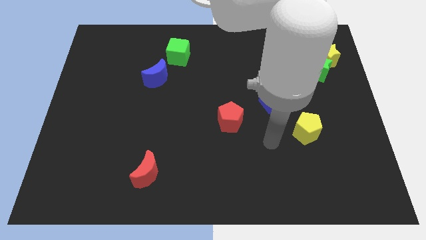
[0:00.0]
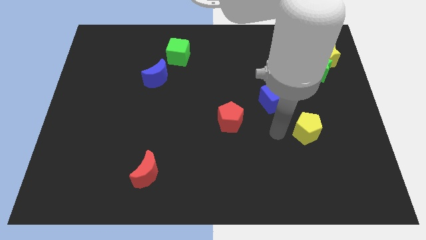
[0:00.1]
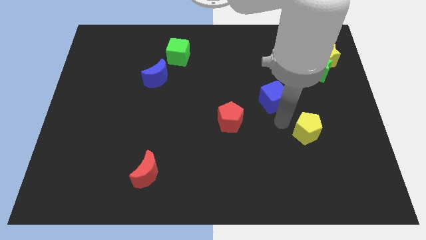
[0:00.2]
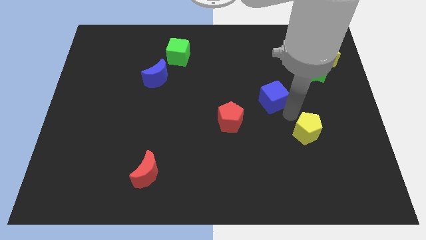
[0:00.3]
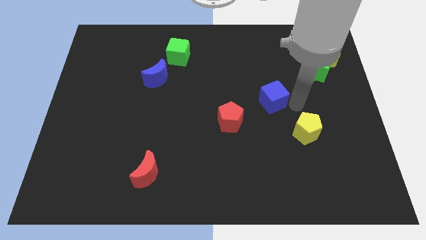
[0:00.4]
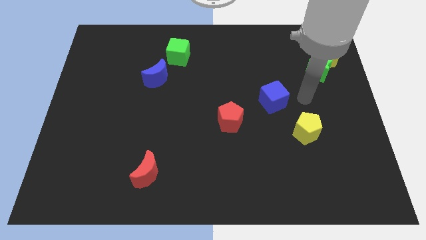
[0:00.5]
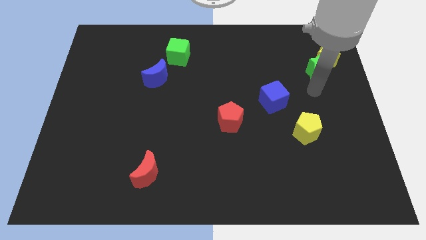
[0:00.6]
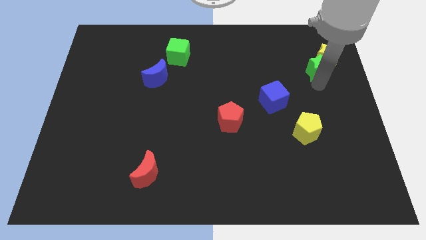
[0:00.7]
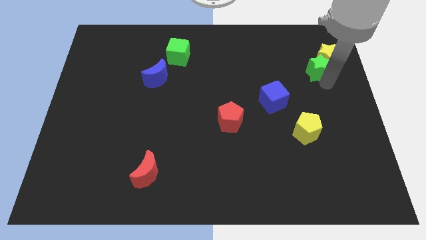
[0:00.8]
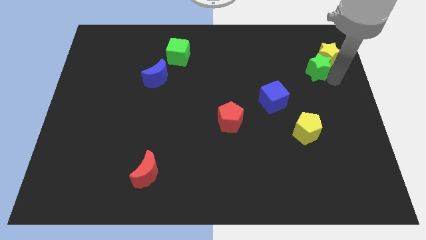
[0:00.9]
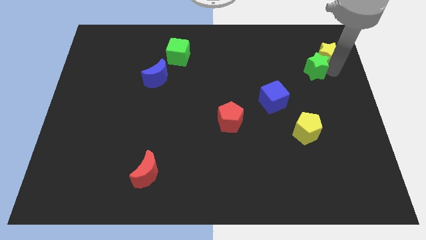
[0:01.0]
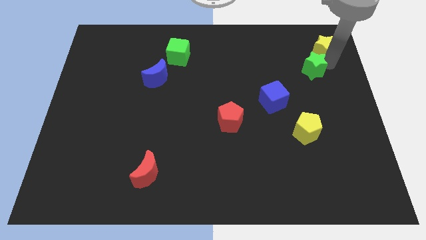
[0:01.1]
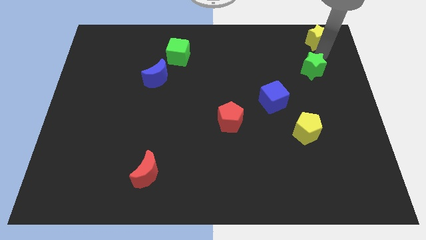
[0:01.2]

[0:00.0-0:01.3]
move the green star away from the yellow star

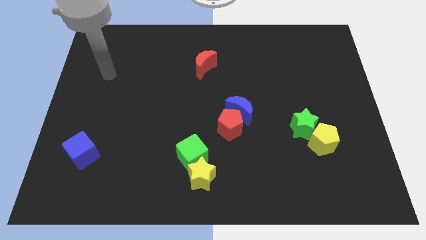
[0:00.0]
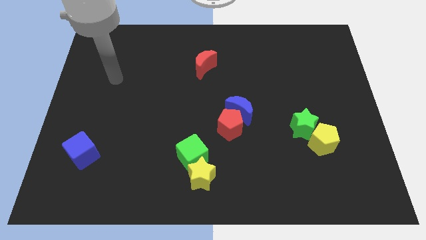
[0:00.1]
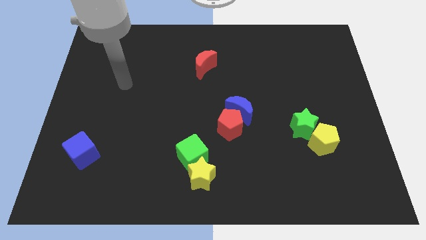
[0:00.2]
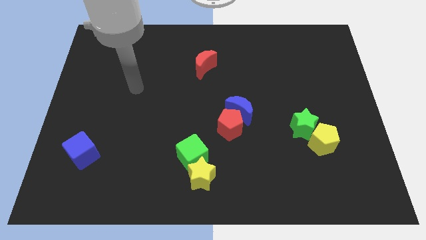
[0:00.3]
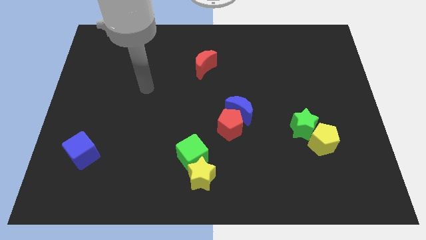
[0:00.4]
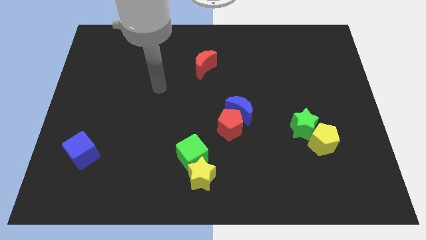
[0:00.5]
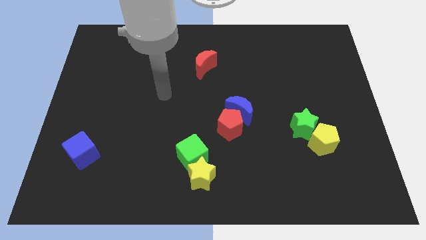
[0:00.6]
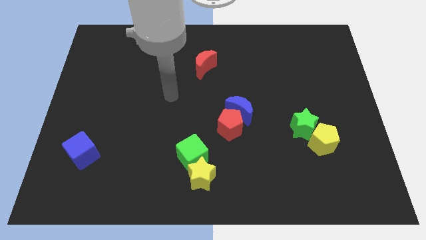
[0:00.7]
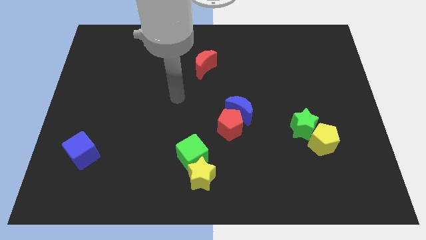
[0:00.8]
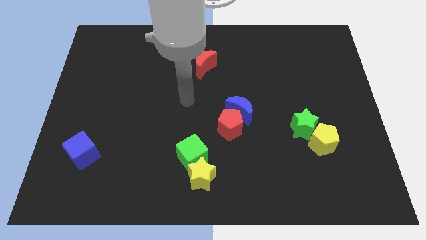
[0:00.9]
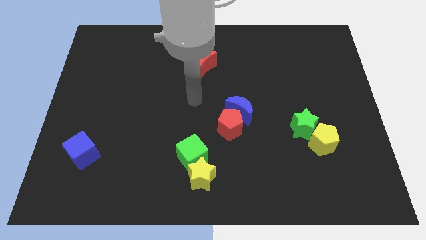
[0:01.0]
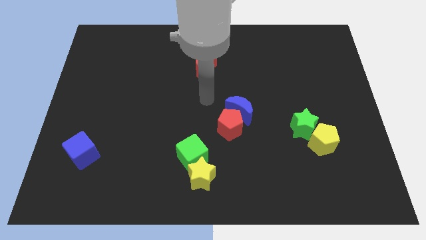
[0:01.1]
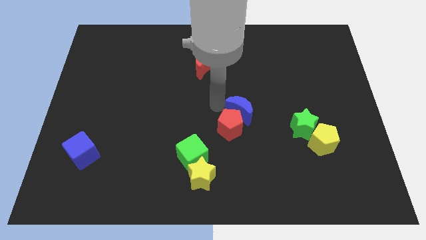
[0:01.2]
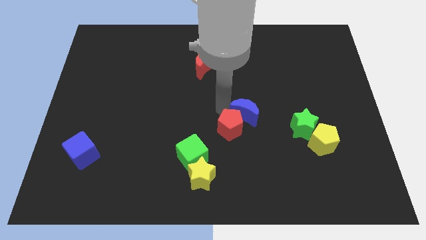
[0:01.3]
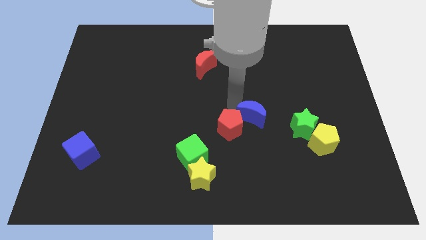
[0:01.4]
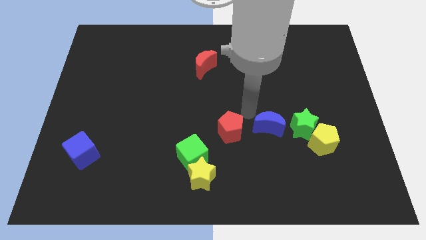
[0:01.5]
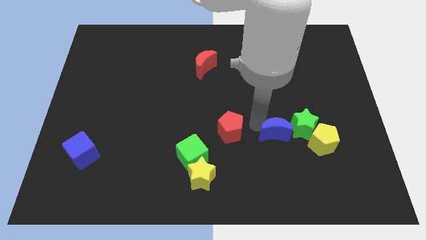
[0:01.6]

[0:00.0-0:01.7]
move the red pentagon away from the blue moon

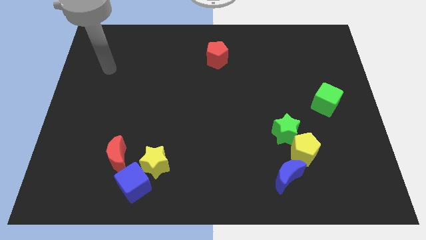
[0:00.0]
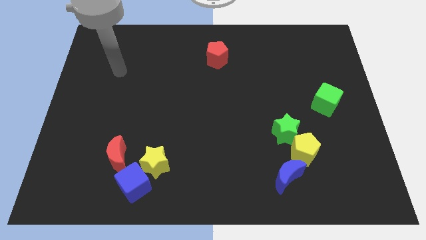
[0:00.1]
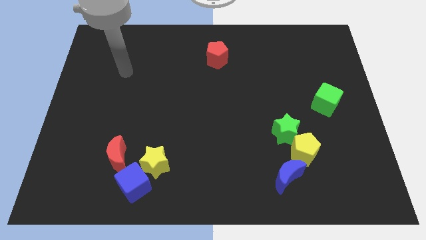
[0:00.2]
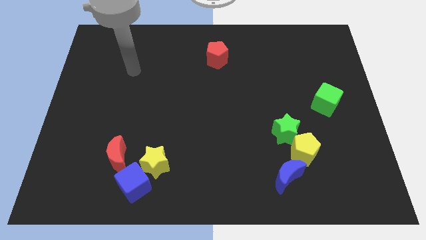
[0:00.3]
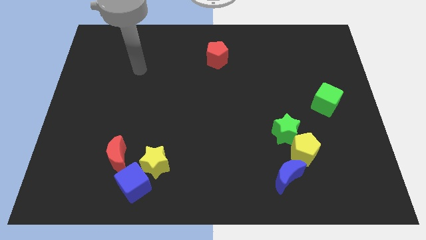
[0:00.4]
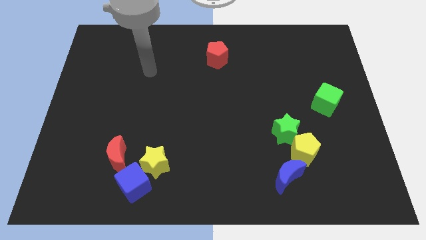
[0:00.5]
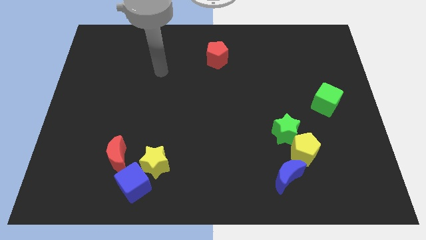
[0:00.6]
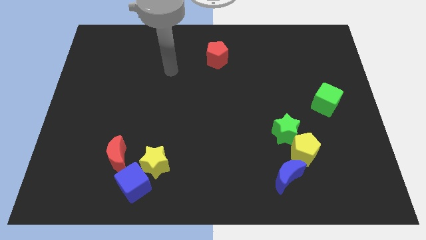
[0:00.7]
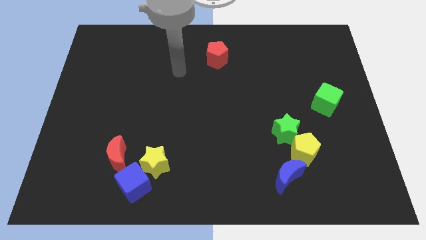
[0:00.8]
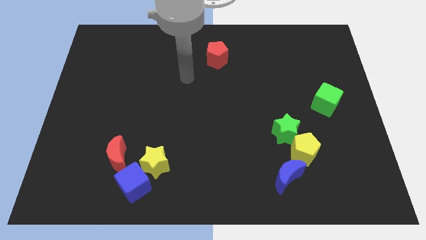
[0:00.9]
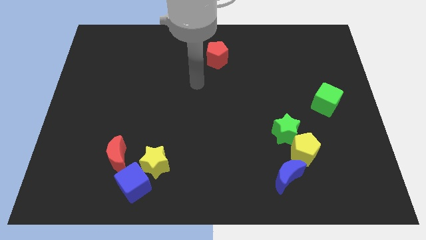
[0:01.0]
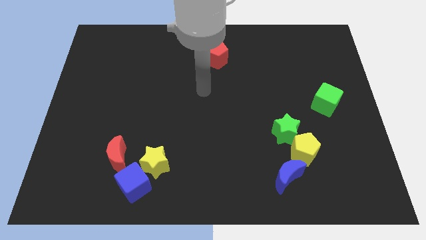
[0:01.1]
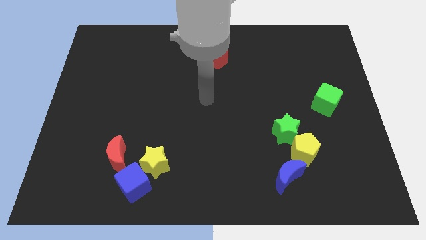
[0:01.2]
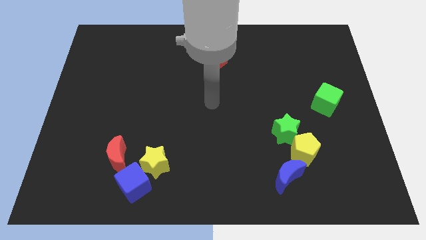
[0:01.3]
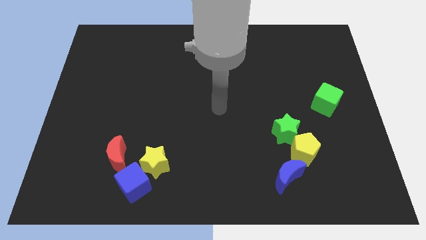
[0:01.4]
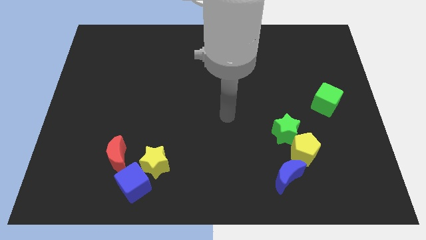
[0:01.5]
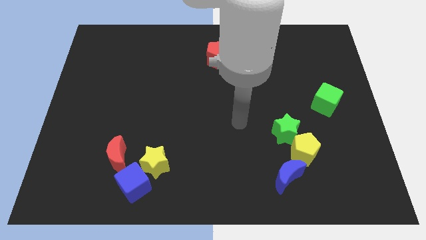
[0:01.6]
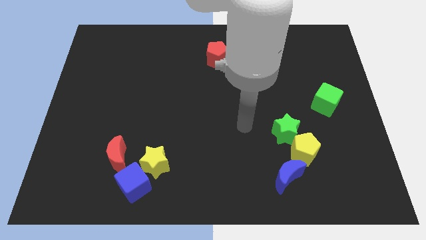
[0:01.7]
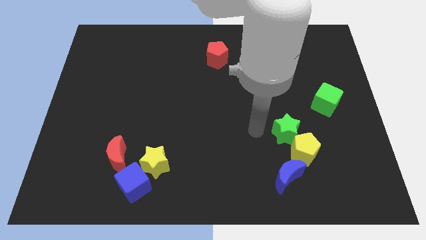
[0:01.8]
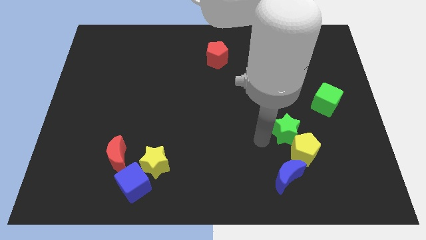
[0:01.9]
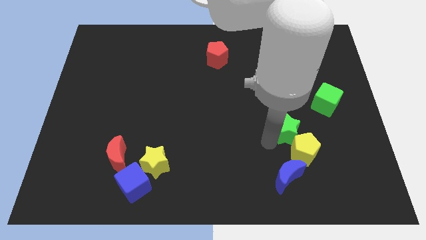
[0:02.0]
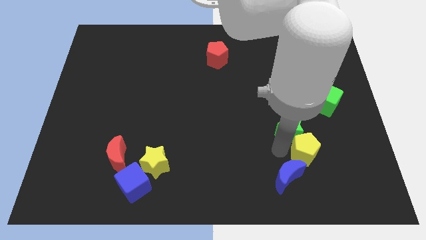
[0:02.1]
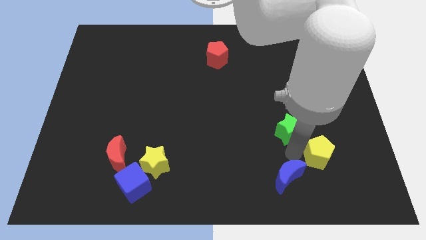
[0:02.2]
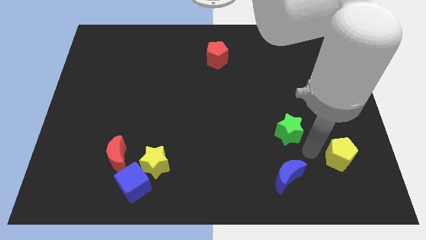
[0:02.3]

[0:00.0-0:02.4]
separate the green star from the yellow pentagon

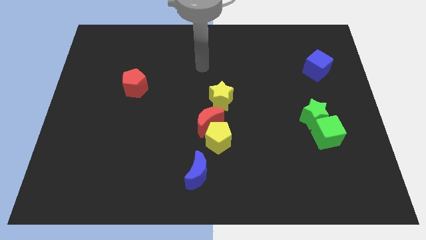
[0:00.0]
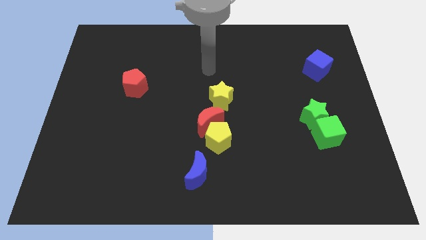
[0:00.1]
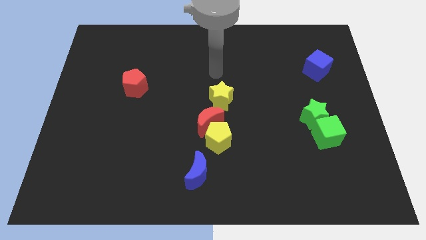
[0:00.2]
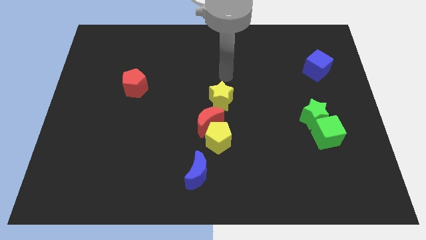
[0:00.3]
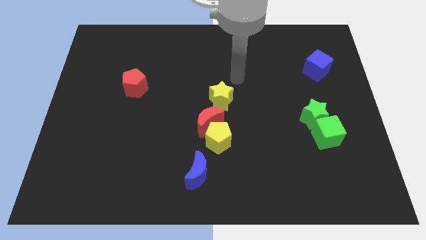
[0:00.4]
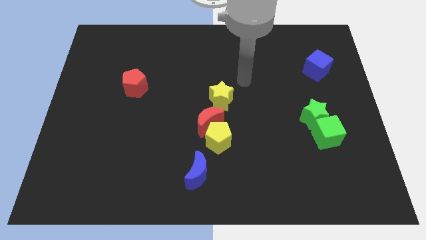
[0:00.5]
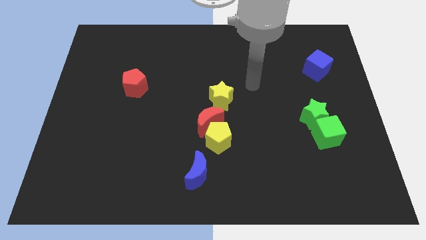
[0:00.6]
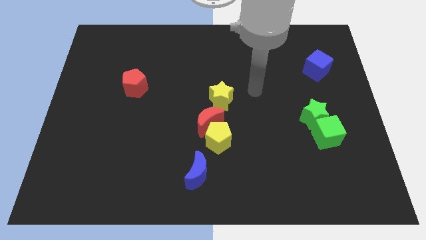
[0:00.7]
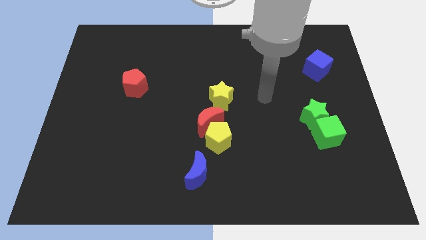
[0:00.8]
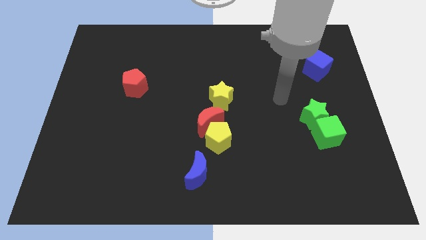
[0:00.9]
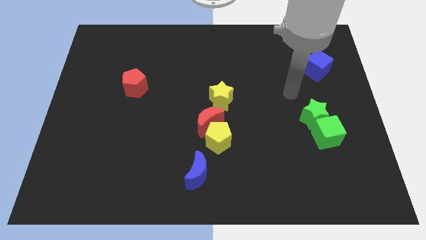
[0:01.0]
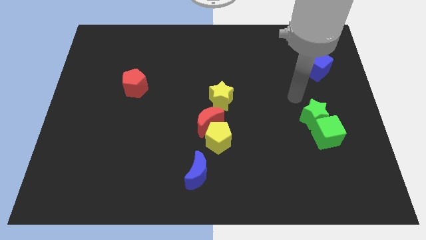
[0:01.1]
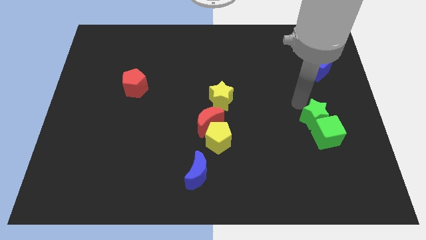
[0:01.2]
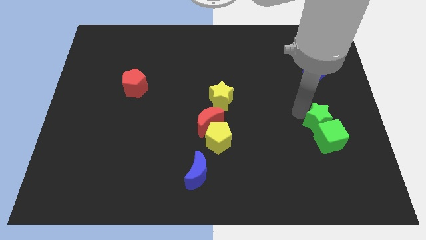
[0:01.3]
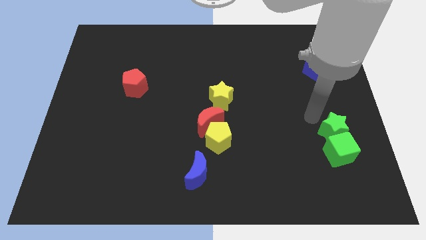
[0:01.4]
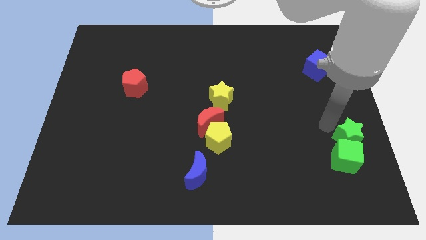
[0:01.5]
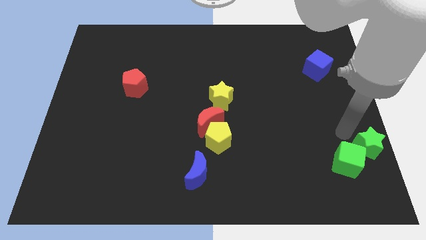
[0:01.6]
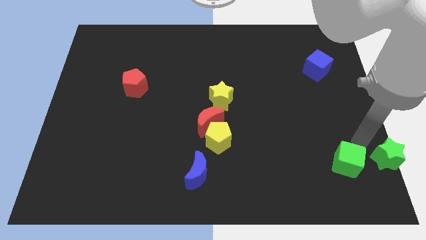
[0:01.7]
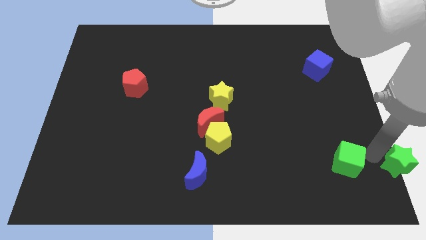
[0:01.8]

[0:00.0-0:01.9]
move the green cube away from the green star

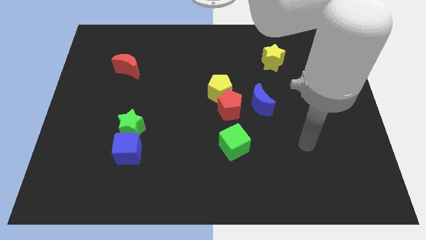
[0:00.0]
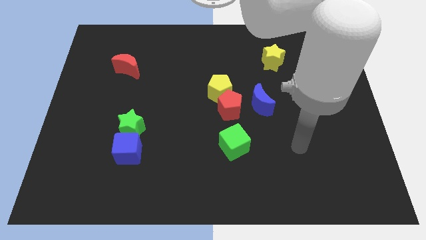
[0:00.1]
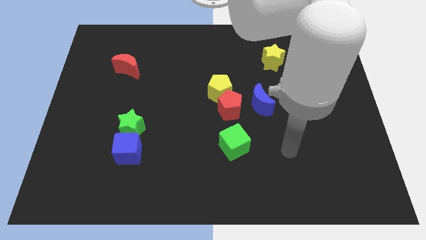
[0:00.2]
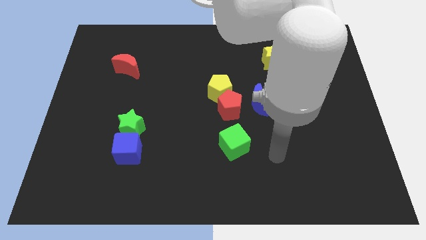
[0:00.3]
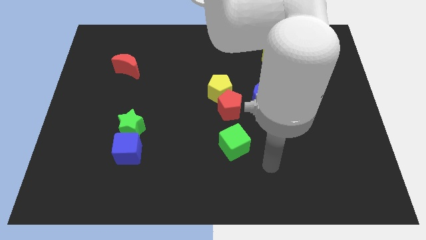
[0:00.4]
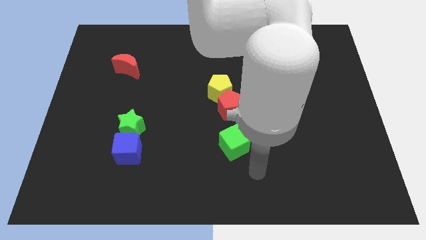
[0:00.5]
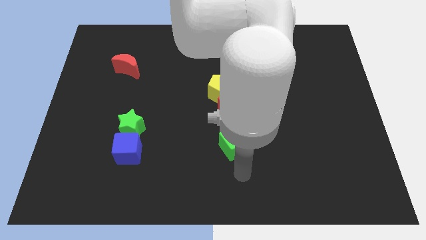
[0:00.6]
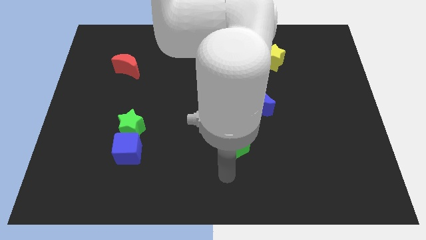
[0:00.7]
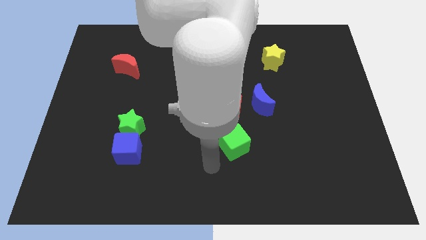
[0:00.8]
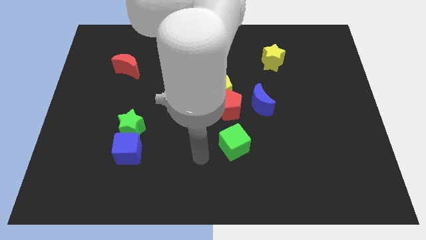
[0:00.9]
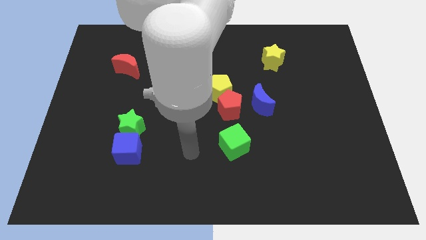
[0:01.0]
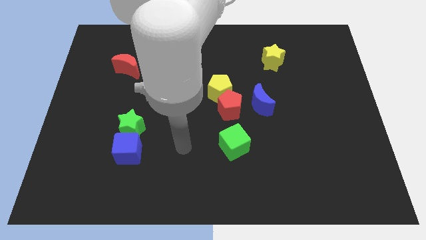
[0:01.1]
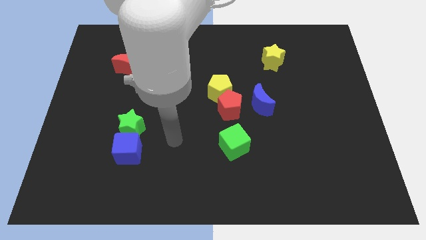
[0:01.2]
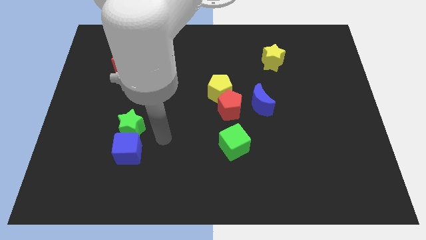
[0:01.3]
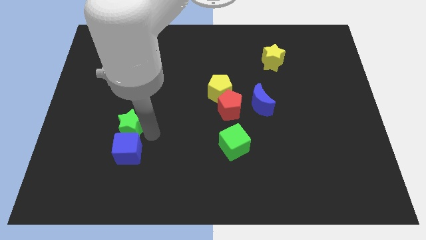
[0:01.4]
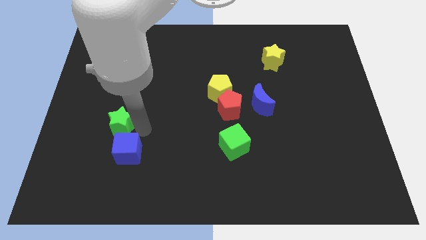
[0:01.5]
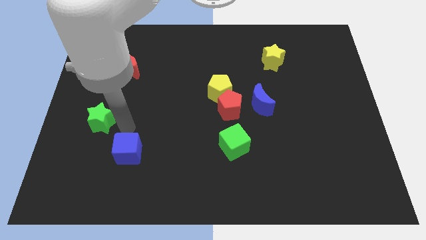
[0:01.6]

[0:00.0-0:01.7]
separate the blue cube from the green star

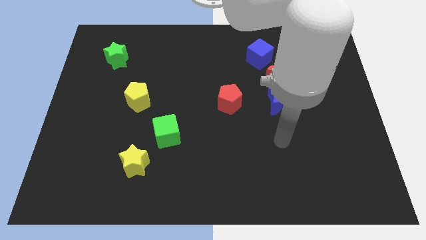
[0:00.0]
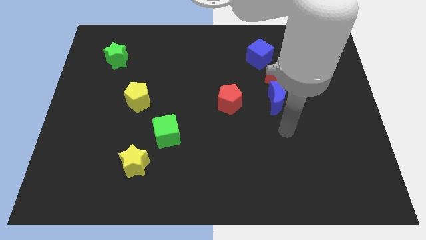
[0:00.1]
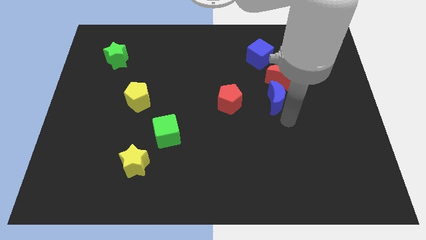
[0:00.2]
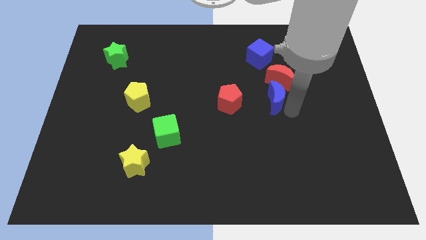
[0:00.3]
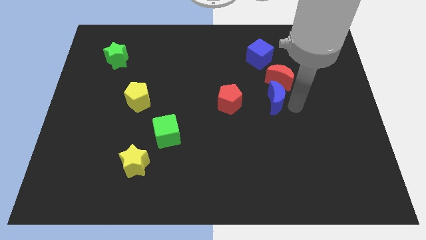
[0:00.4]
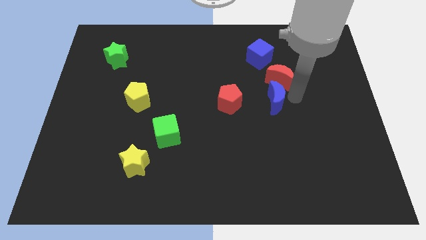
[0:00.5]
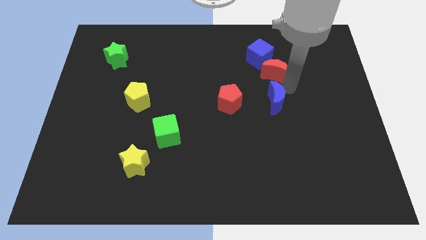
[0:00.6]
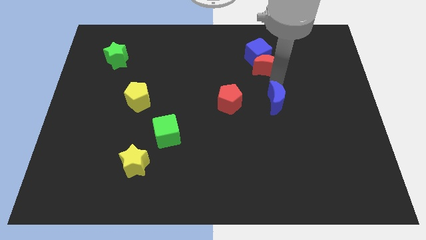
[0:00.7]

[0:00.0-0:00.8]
pull the blue moon apart from the red moon
